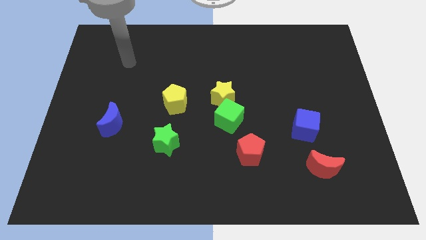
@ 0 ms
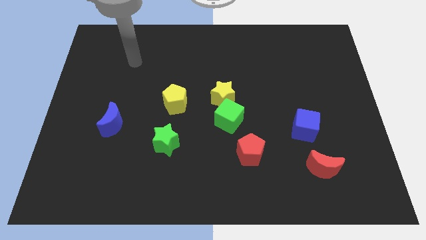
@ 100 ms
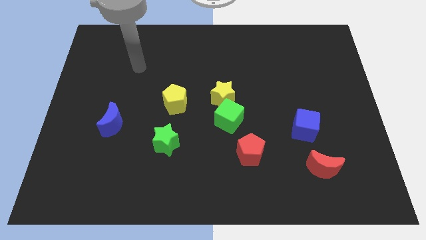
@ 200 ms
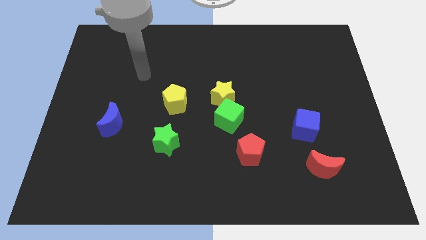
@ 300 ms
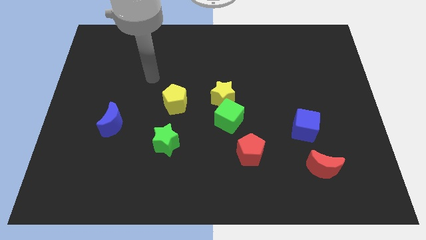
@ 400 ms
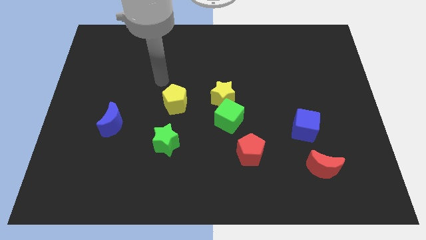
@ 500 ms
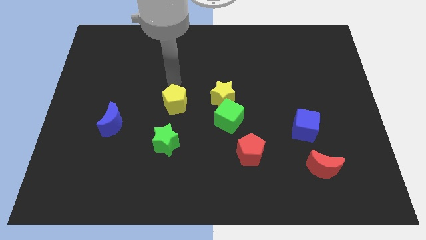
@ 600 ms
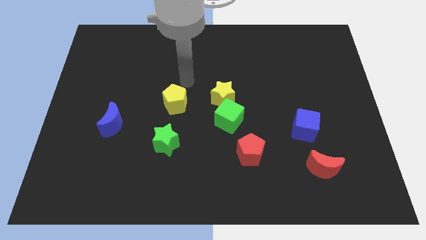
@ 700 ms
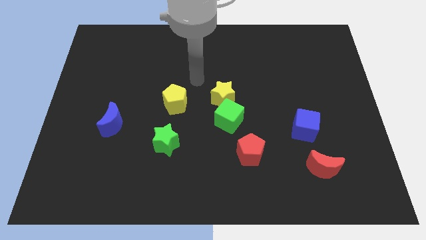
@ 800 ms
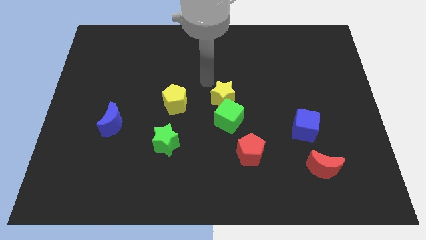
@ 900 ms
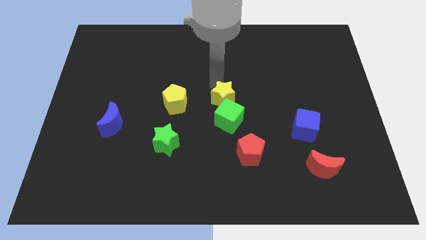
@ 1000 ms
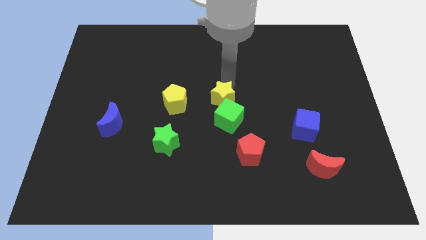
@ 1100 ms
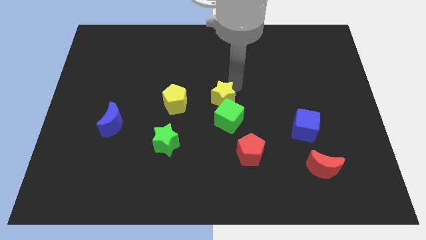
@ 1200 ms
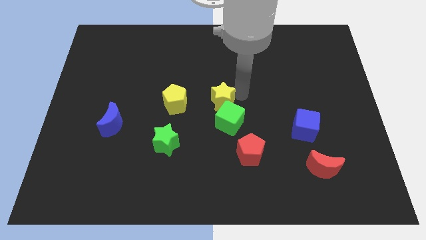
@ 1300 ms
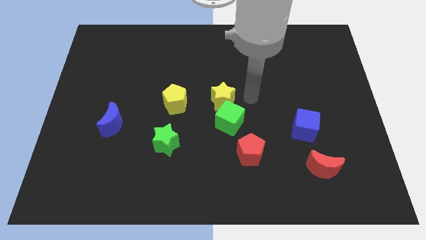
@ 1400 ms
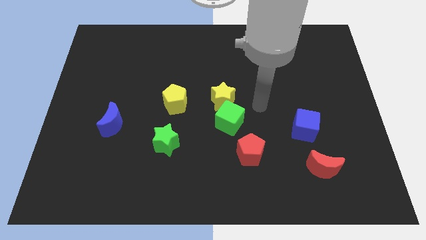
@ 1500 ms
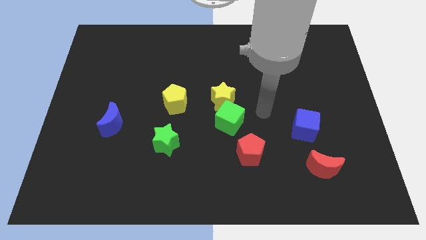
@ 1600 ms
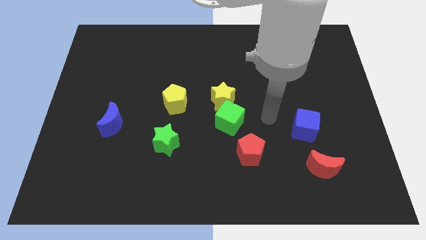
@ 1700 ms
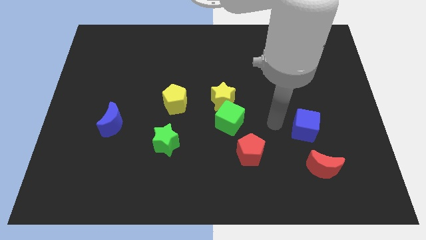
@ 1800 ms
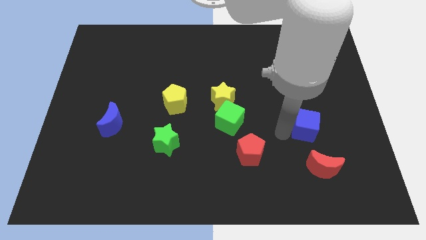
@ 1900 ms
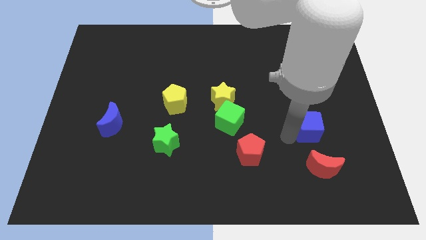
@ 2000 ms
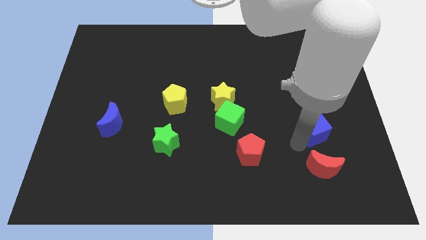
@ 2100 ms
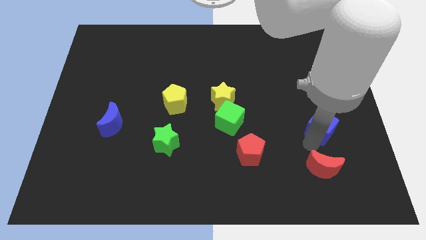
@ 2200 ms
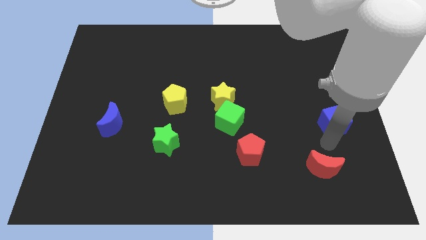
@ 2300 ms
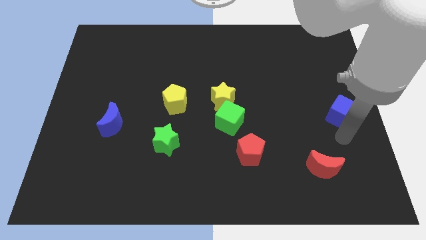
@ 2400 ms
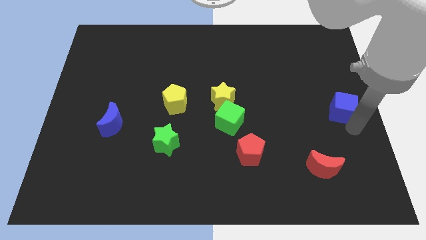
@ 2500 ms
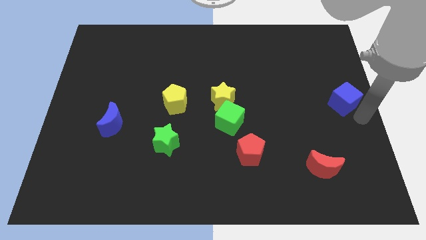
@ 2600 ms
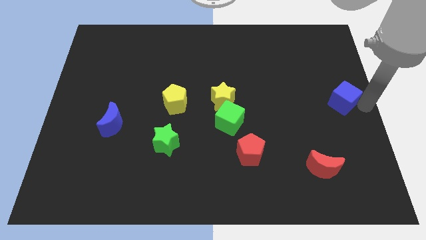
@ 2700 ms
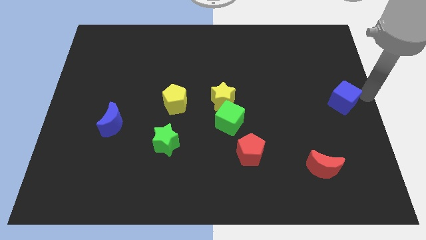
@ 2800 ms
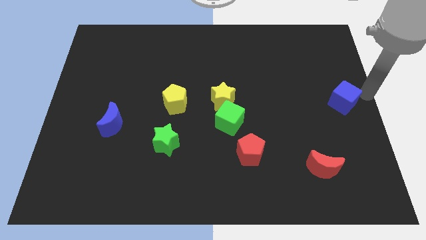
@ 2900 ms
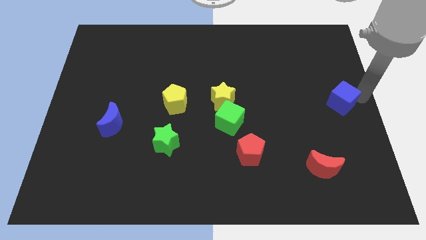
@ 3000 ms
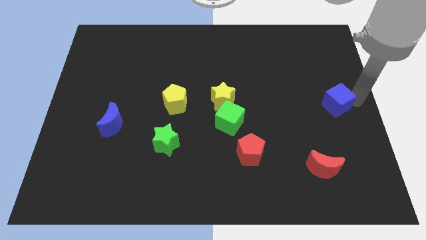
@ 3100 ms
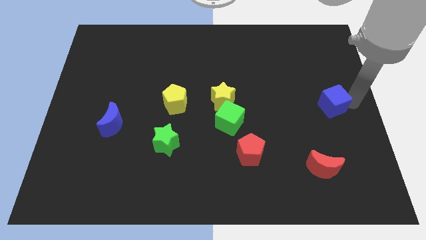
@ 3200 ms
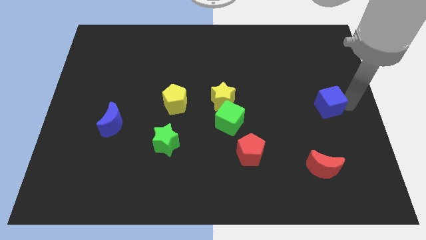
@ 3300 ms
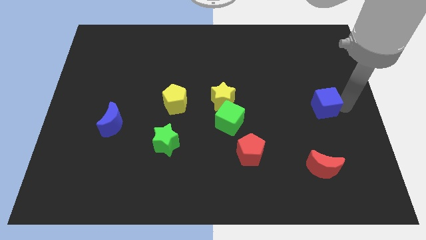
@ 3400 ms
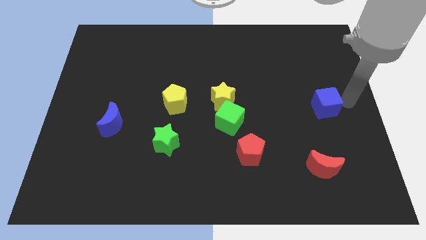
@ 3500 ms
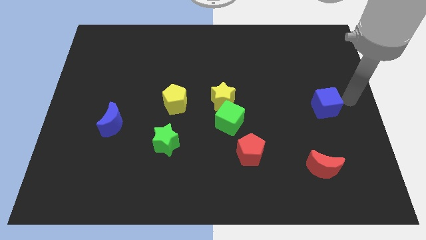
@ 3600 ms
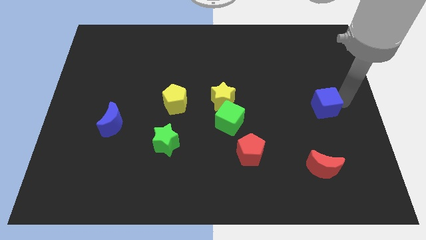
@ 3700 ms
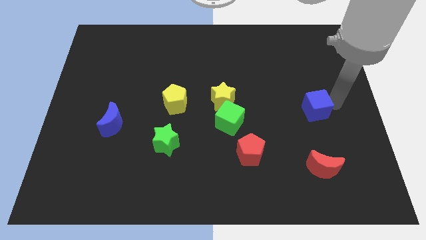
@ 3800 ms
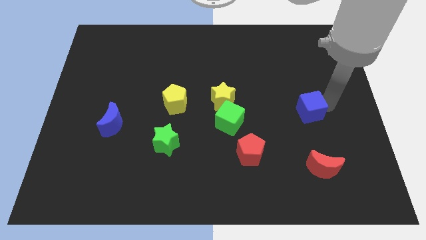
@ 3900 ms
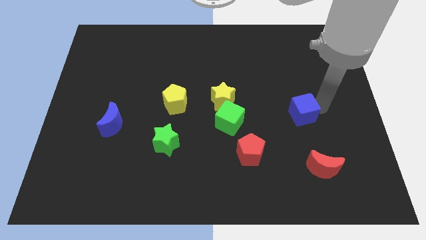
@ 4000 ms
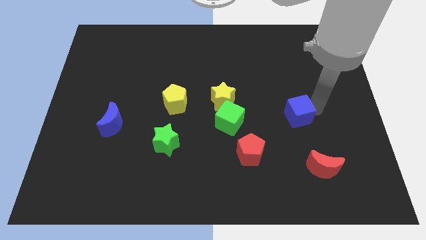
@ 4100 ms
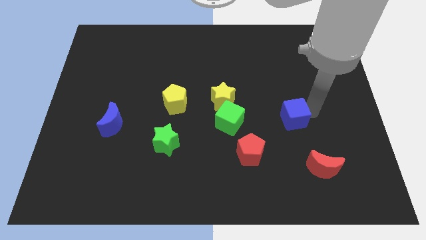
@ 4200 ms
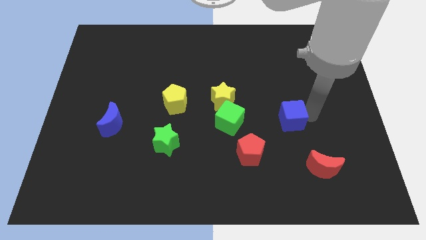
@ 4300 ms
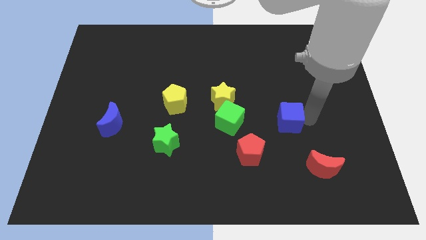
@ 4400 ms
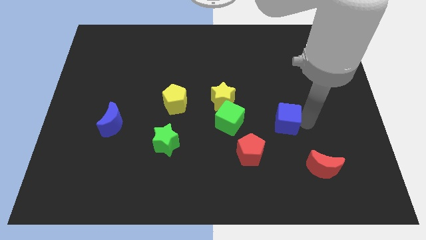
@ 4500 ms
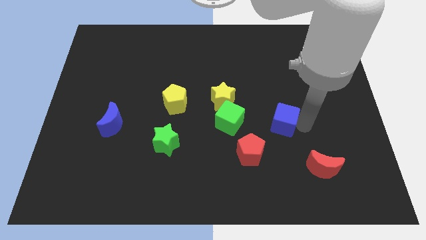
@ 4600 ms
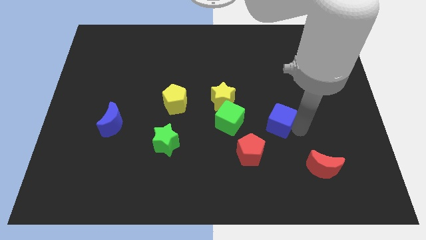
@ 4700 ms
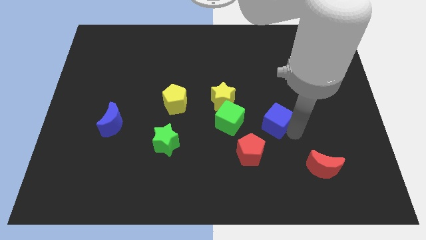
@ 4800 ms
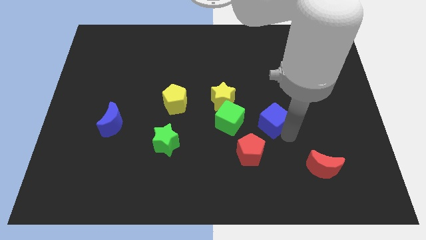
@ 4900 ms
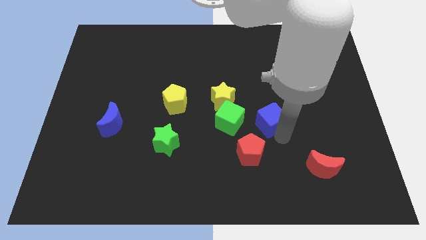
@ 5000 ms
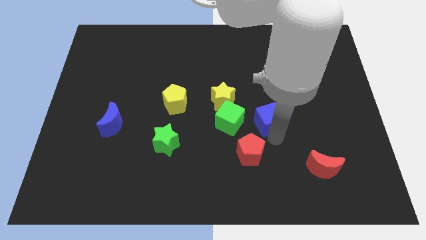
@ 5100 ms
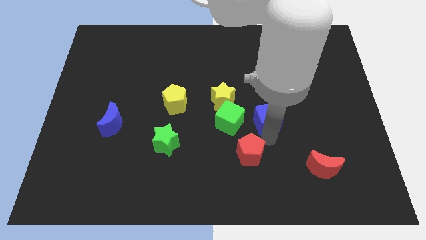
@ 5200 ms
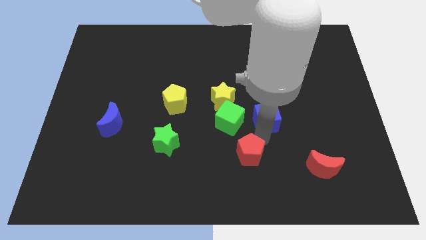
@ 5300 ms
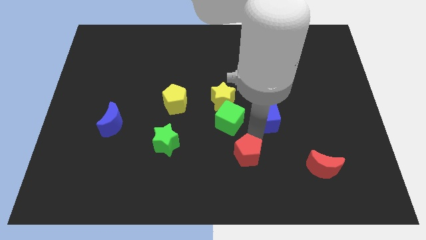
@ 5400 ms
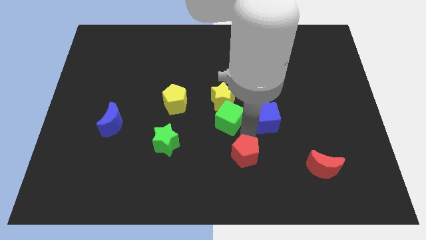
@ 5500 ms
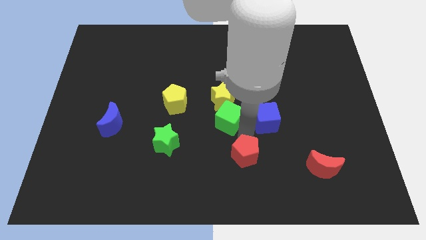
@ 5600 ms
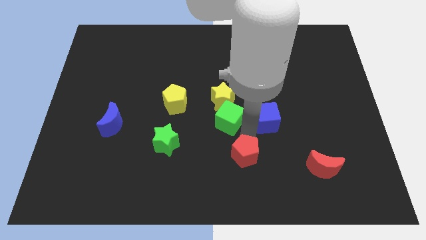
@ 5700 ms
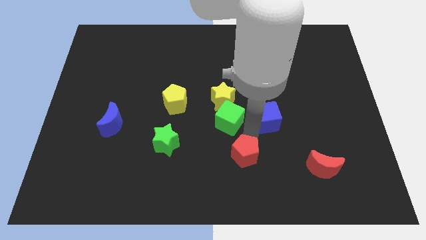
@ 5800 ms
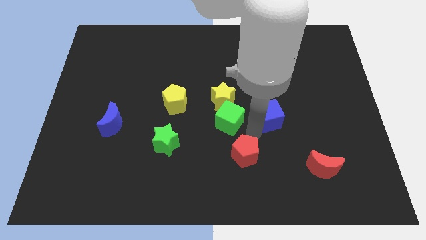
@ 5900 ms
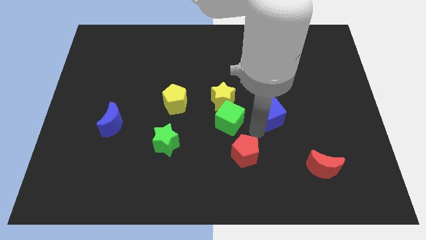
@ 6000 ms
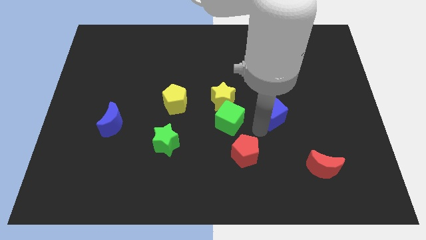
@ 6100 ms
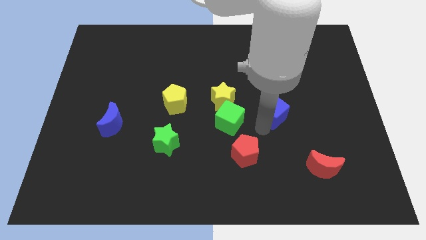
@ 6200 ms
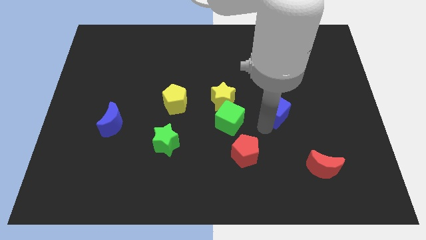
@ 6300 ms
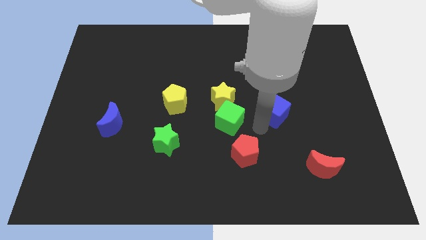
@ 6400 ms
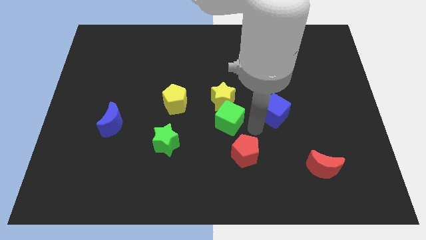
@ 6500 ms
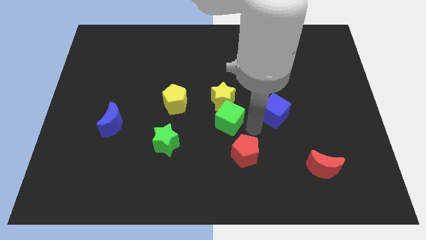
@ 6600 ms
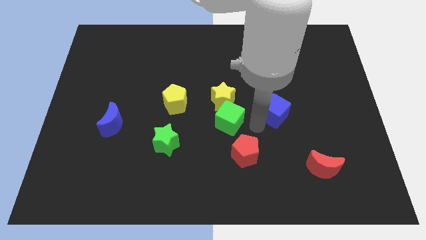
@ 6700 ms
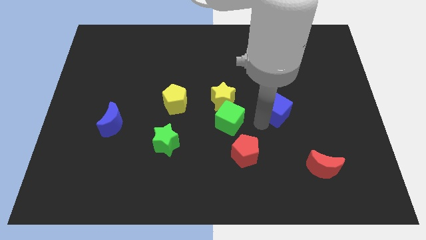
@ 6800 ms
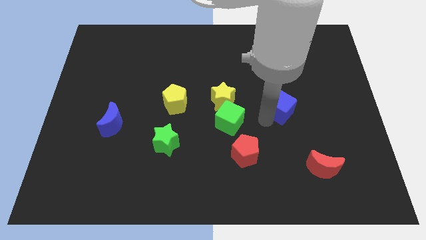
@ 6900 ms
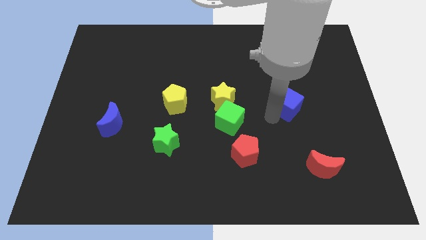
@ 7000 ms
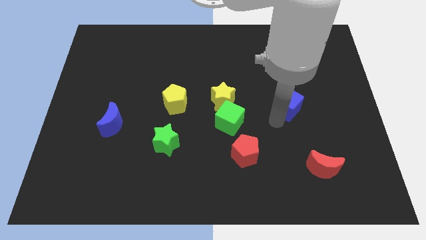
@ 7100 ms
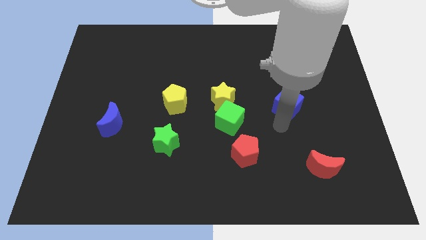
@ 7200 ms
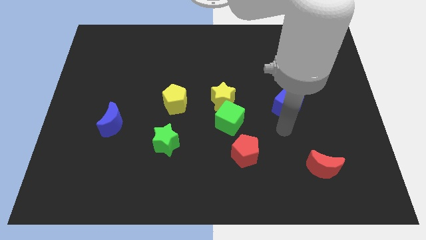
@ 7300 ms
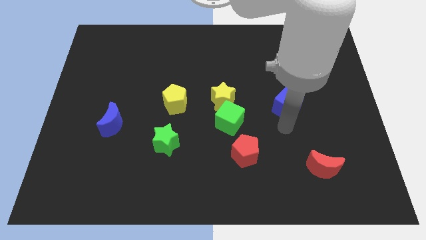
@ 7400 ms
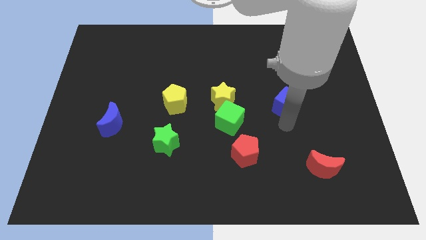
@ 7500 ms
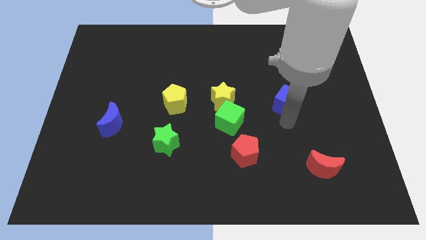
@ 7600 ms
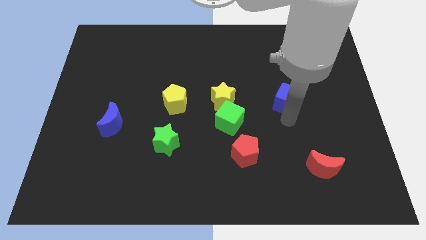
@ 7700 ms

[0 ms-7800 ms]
move the blue cube somewhat upwards

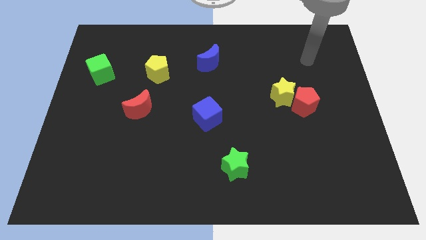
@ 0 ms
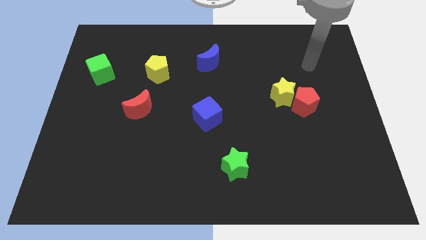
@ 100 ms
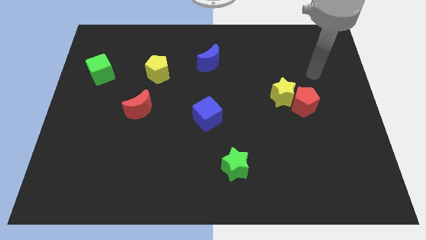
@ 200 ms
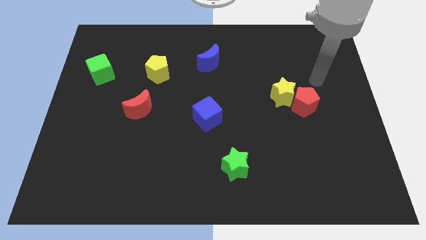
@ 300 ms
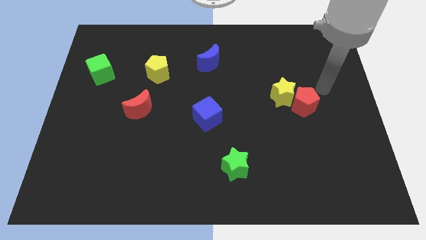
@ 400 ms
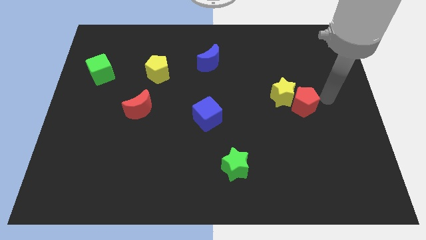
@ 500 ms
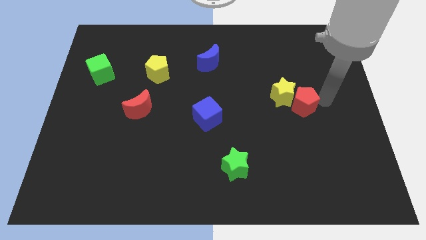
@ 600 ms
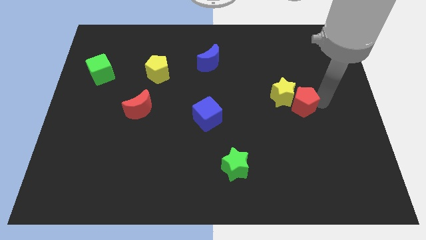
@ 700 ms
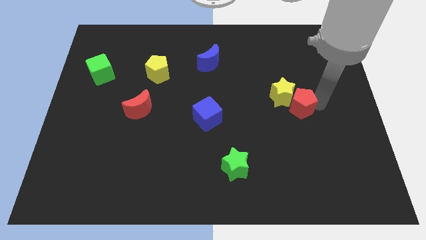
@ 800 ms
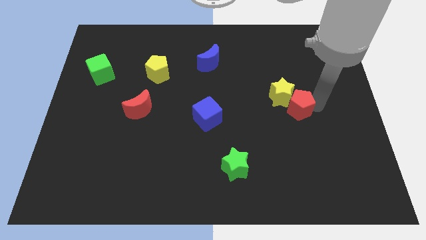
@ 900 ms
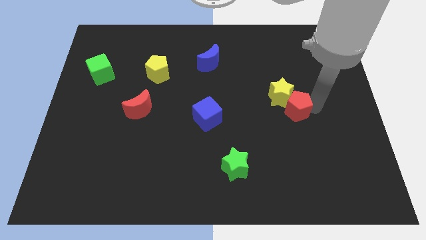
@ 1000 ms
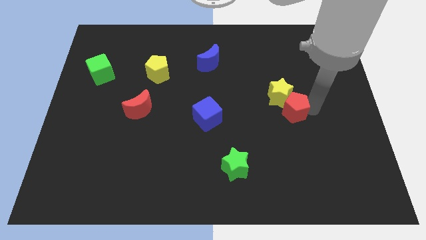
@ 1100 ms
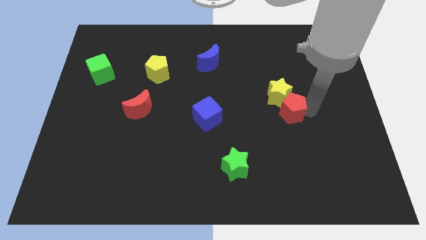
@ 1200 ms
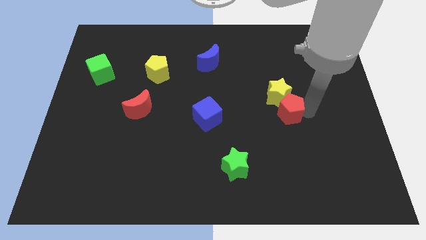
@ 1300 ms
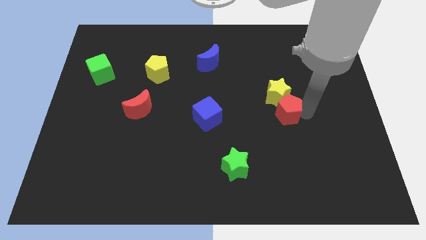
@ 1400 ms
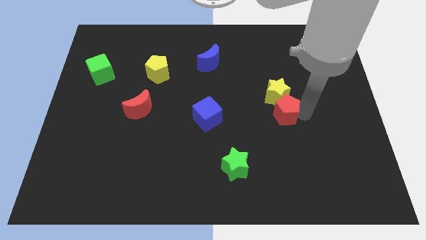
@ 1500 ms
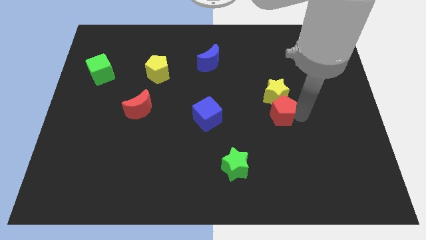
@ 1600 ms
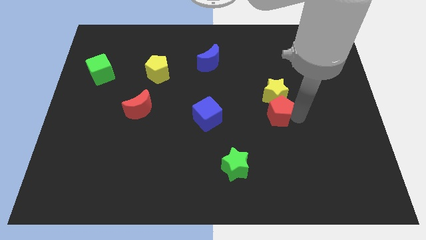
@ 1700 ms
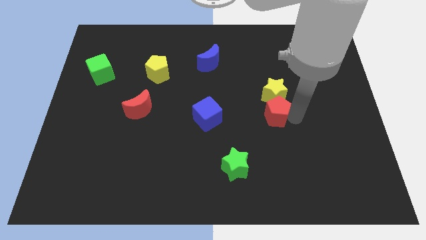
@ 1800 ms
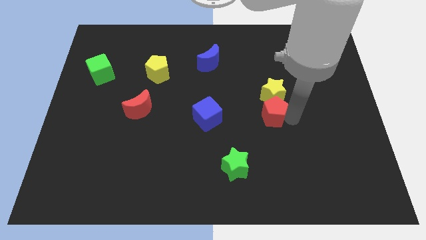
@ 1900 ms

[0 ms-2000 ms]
slide the red pentagon slightly to the left
